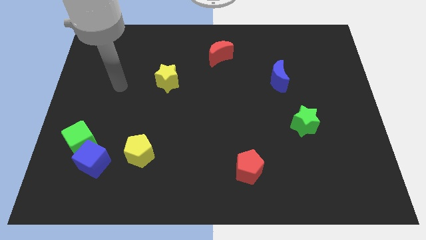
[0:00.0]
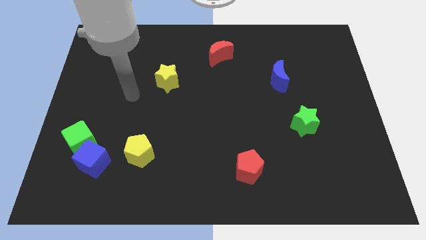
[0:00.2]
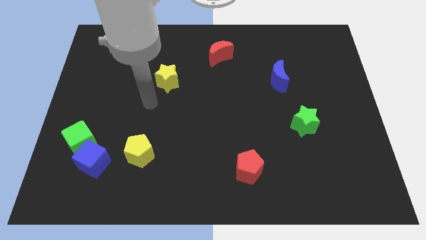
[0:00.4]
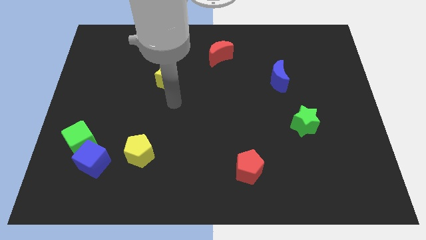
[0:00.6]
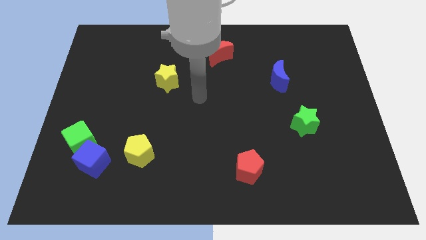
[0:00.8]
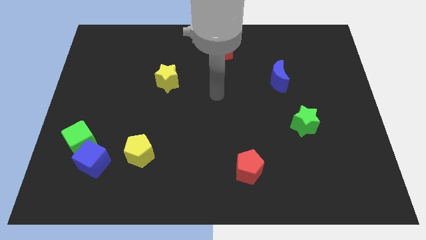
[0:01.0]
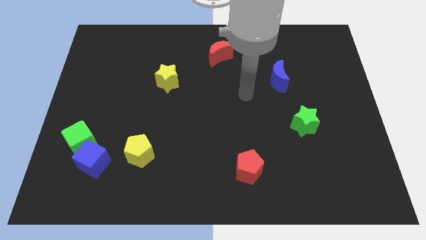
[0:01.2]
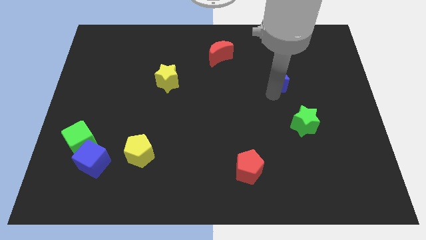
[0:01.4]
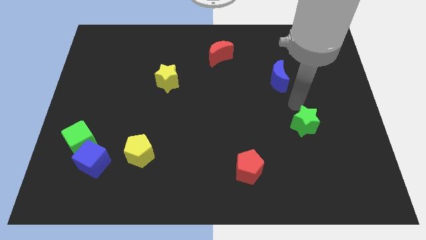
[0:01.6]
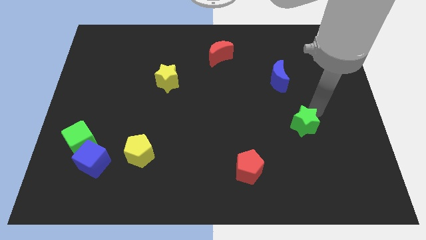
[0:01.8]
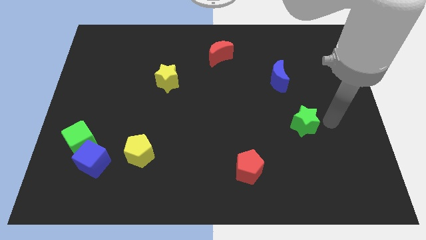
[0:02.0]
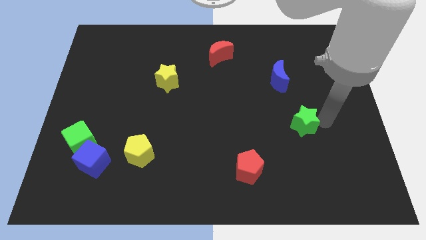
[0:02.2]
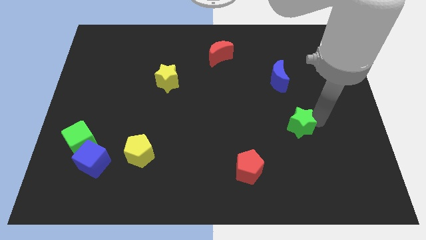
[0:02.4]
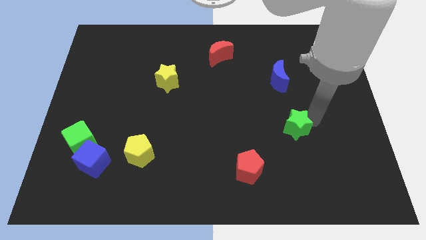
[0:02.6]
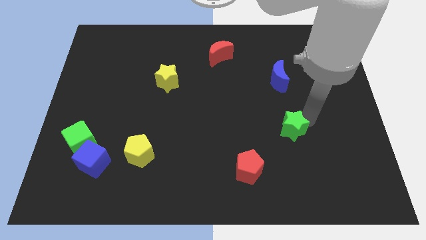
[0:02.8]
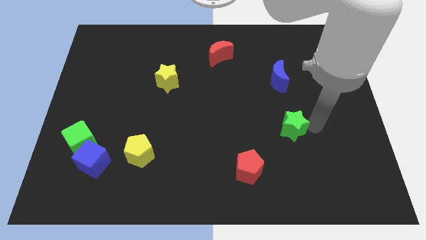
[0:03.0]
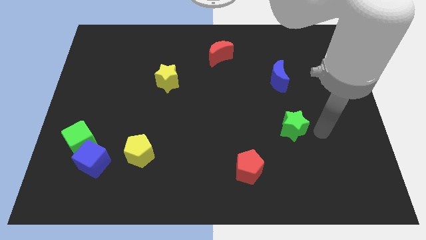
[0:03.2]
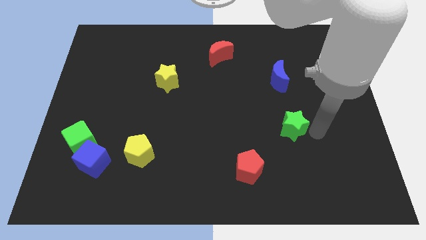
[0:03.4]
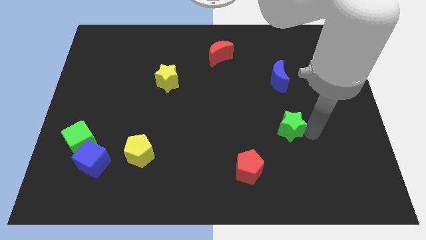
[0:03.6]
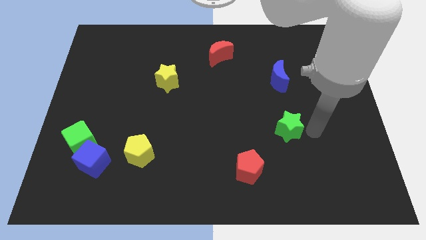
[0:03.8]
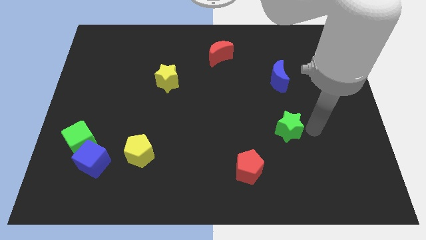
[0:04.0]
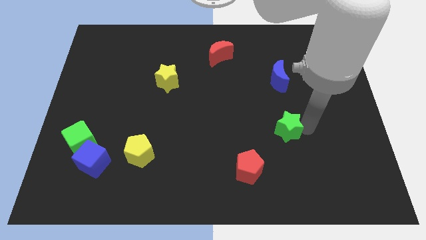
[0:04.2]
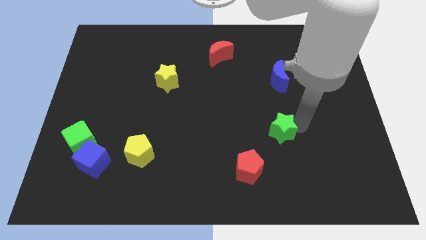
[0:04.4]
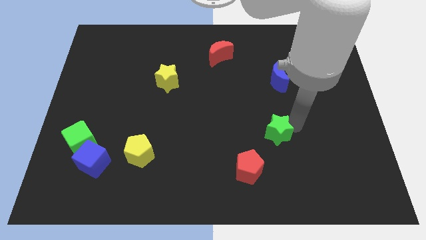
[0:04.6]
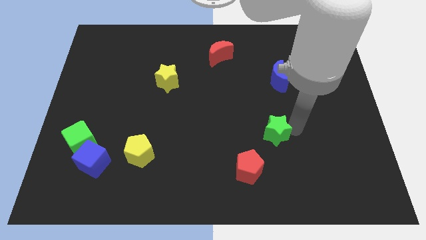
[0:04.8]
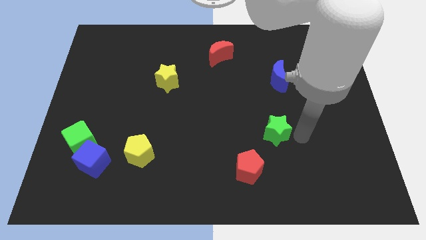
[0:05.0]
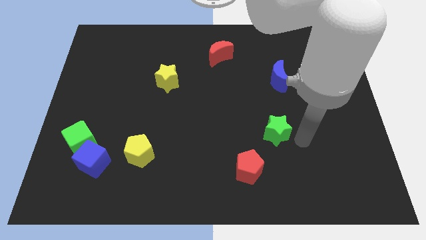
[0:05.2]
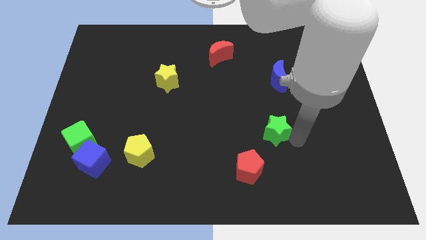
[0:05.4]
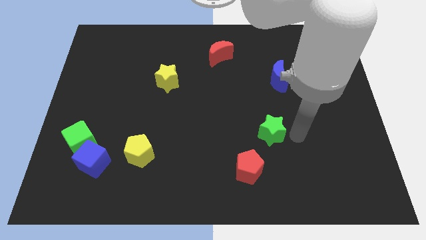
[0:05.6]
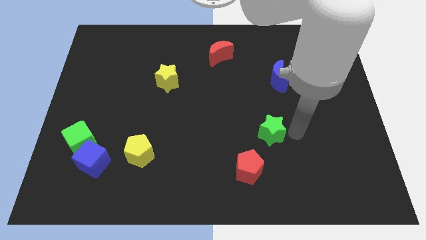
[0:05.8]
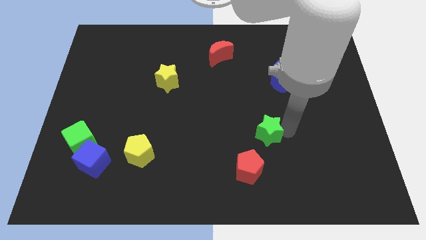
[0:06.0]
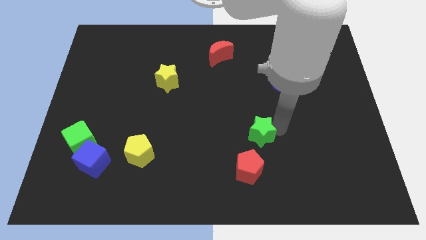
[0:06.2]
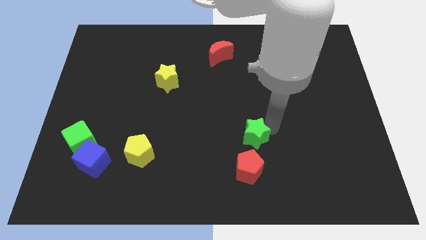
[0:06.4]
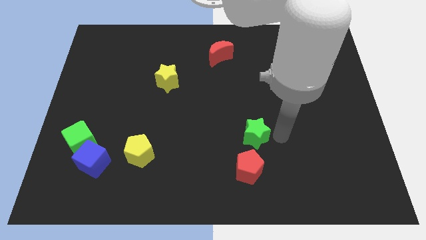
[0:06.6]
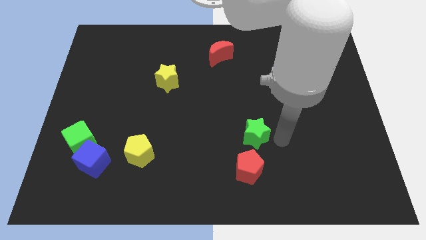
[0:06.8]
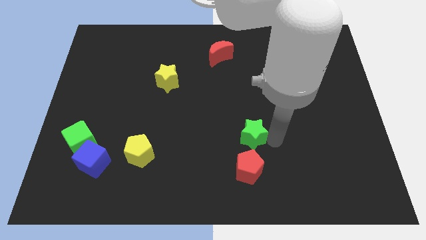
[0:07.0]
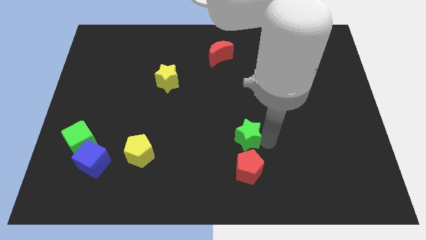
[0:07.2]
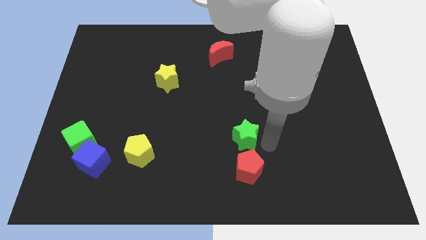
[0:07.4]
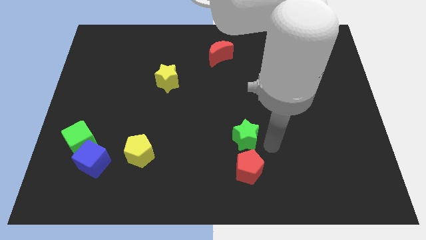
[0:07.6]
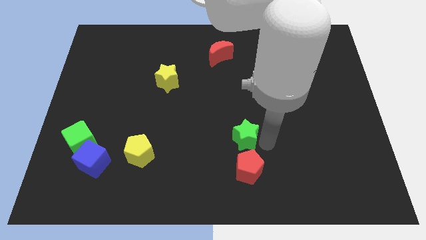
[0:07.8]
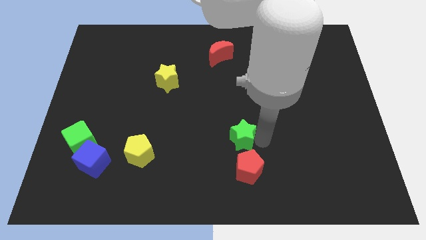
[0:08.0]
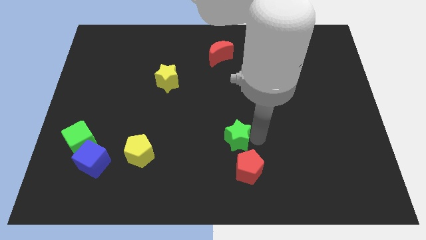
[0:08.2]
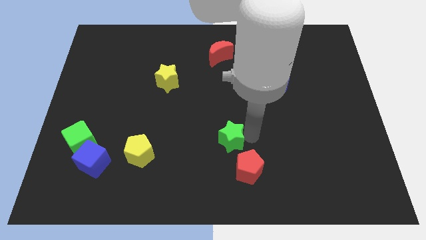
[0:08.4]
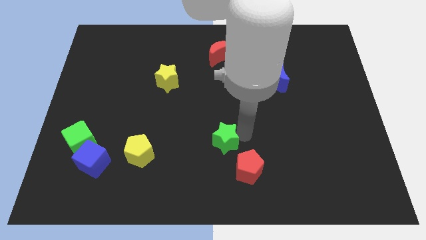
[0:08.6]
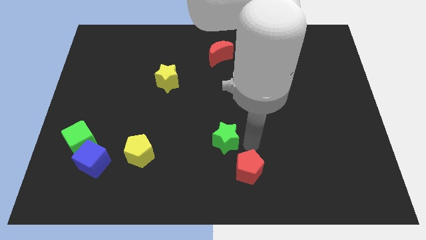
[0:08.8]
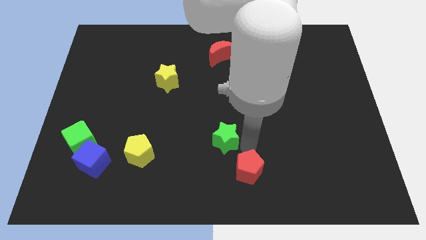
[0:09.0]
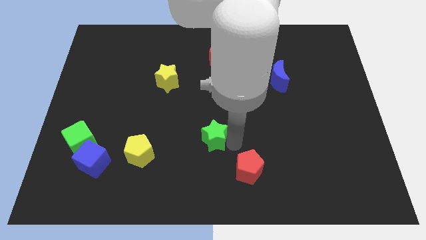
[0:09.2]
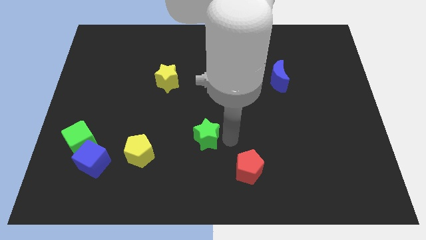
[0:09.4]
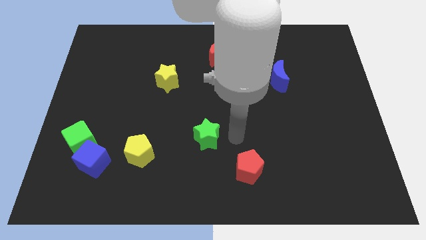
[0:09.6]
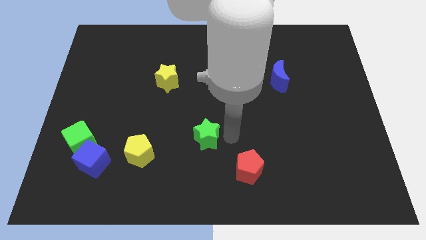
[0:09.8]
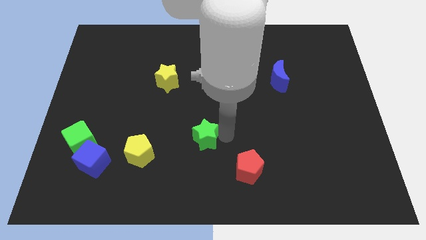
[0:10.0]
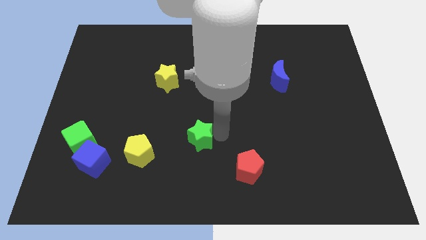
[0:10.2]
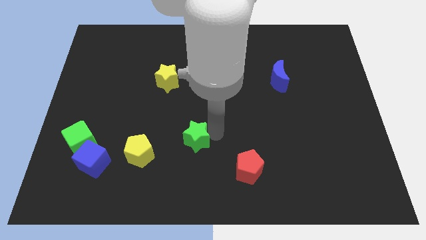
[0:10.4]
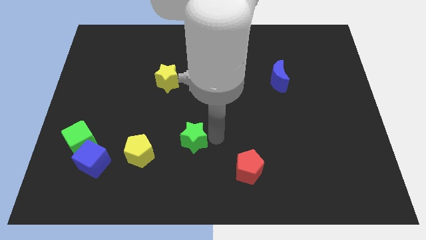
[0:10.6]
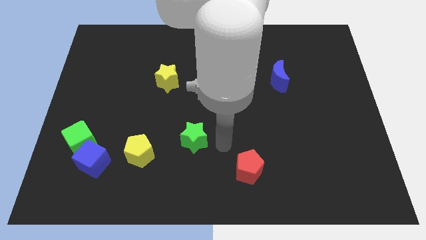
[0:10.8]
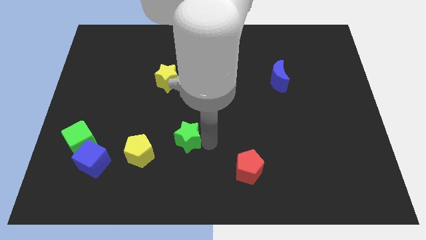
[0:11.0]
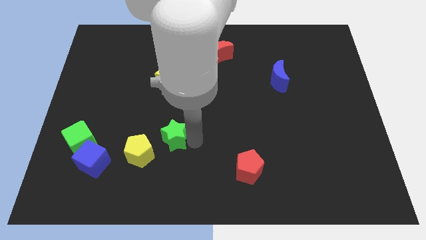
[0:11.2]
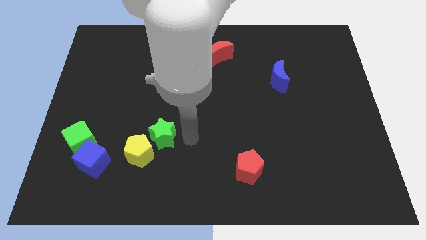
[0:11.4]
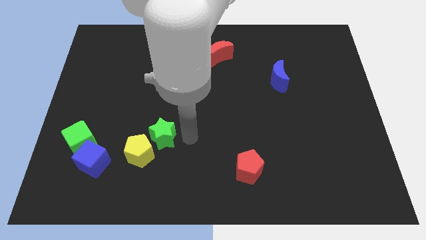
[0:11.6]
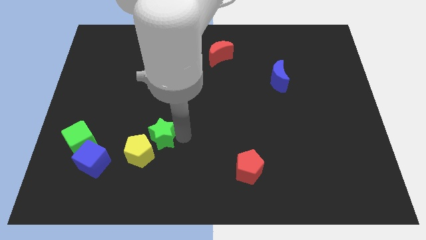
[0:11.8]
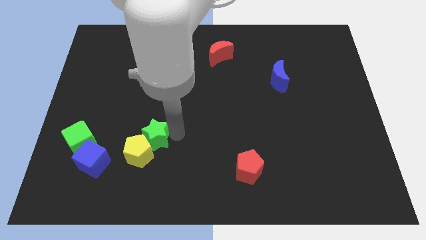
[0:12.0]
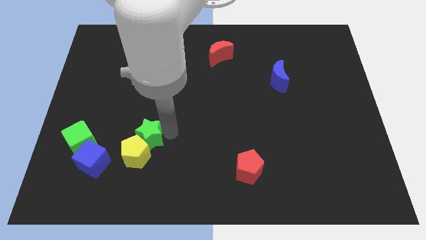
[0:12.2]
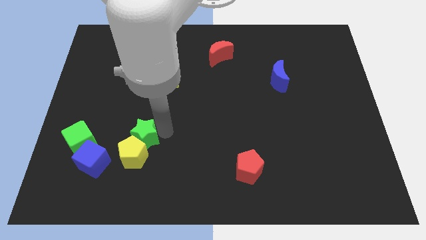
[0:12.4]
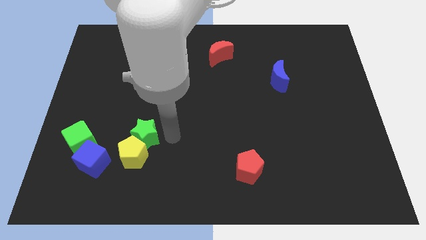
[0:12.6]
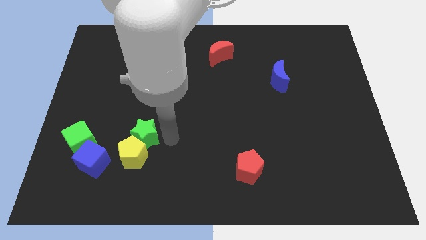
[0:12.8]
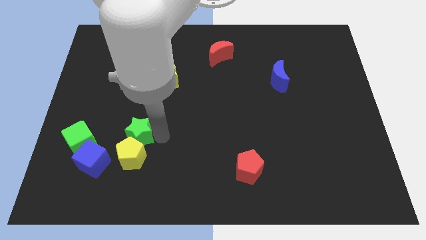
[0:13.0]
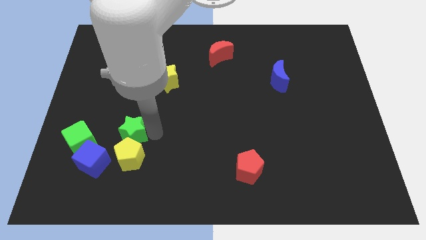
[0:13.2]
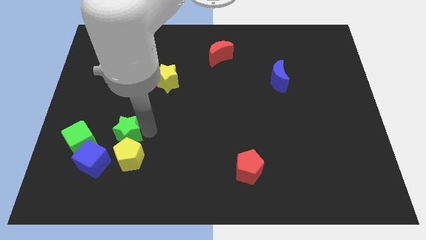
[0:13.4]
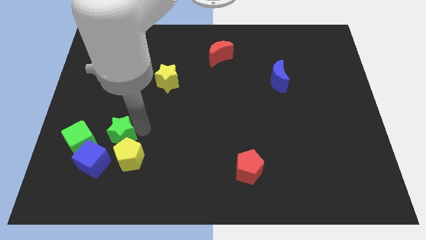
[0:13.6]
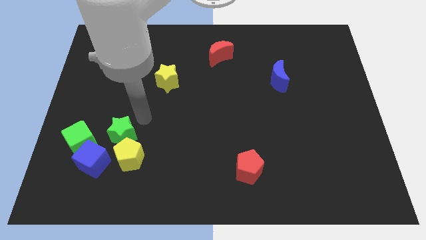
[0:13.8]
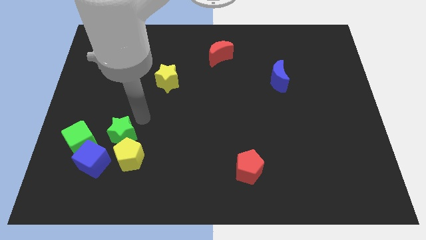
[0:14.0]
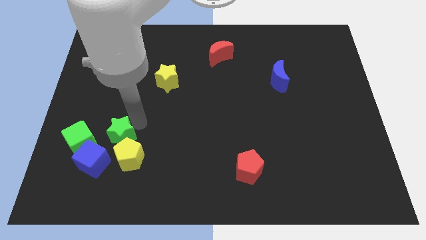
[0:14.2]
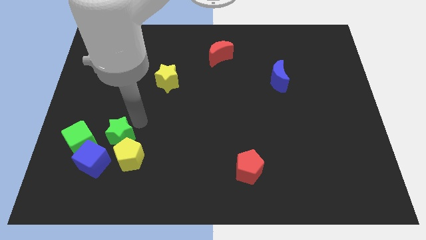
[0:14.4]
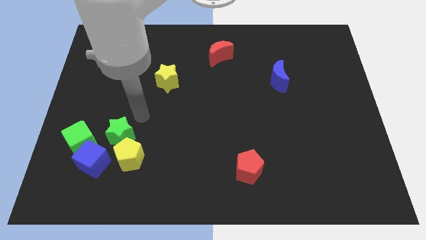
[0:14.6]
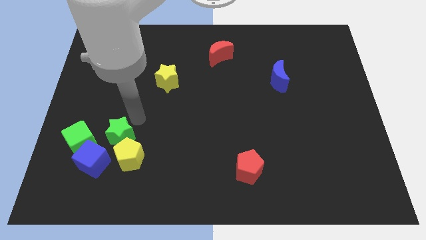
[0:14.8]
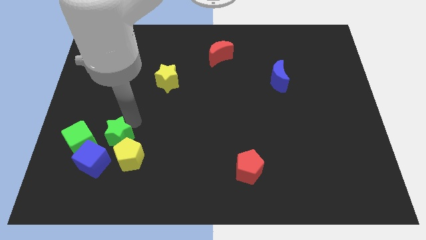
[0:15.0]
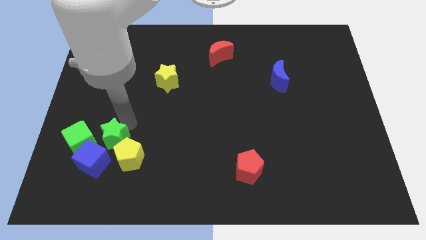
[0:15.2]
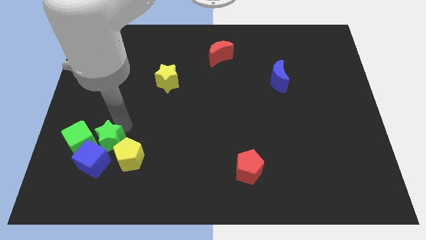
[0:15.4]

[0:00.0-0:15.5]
put the green star next to the blue cube
